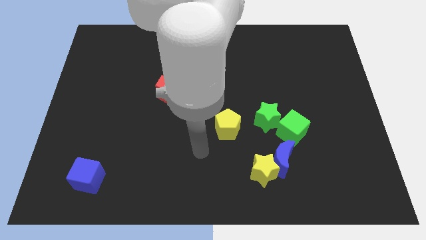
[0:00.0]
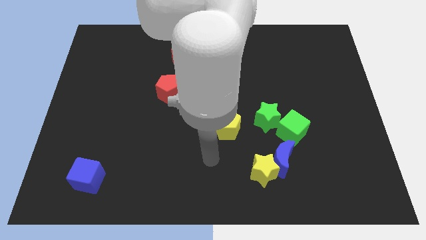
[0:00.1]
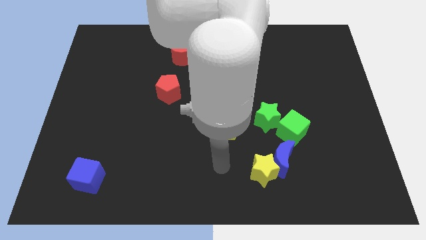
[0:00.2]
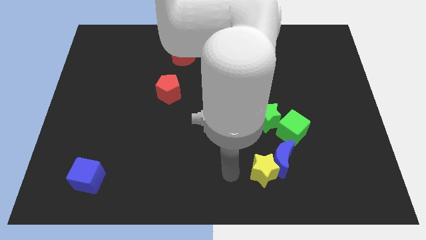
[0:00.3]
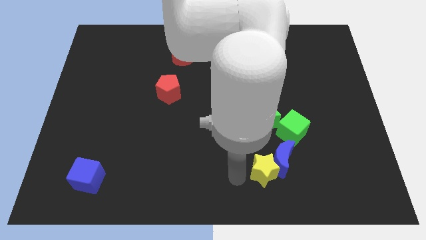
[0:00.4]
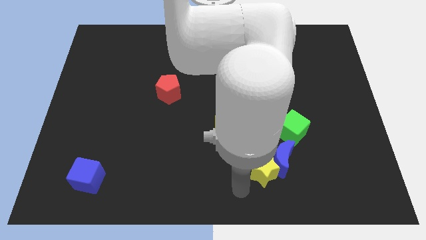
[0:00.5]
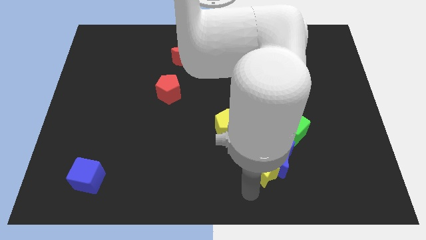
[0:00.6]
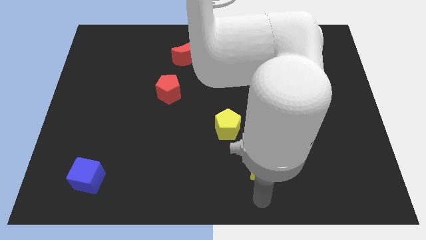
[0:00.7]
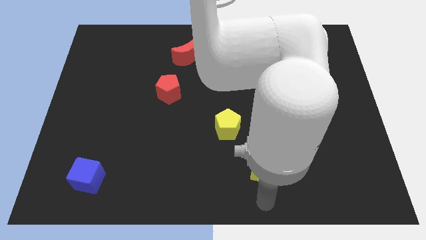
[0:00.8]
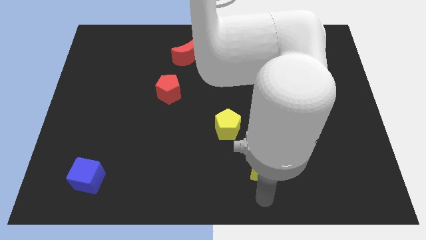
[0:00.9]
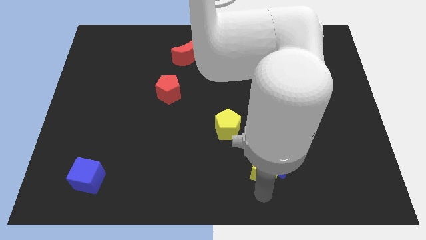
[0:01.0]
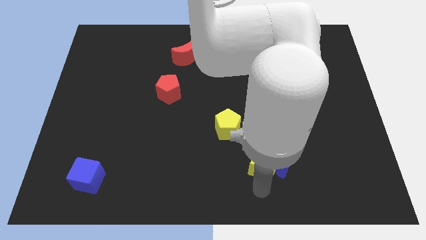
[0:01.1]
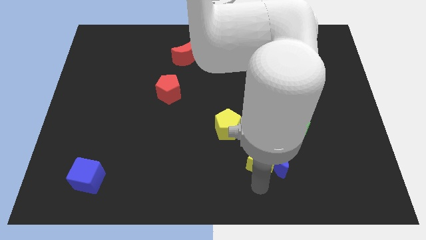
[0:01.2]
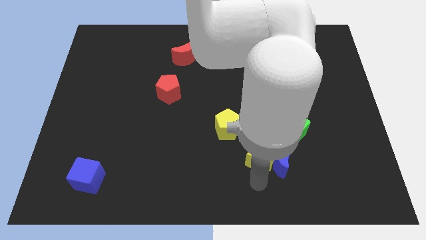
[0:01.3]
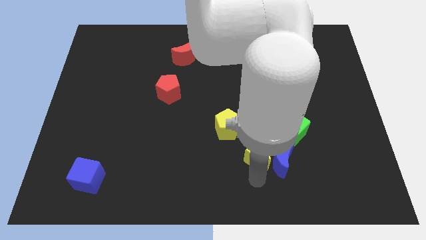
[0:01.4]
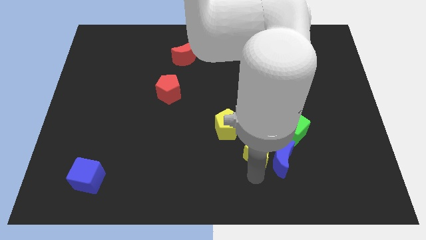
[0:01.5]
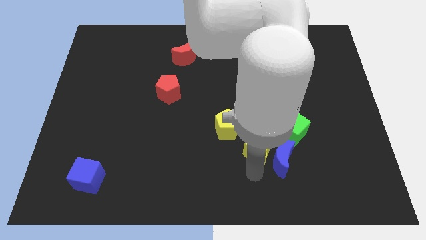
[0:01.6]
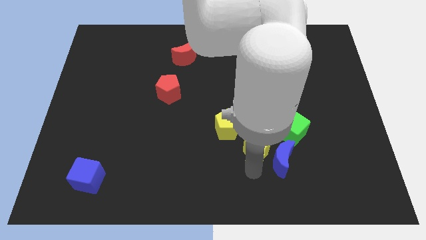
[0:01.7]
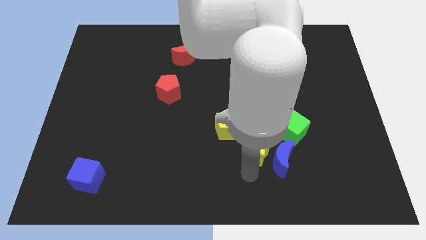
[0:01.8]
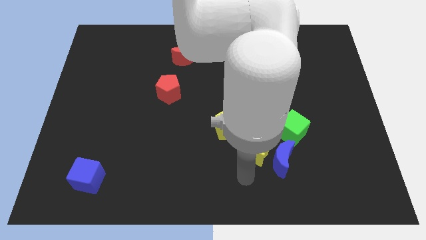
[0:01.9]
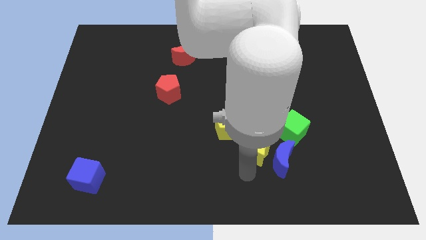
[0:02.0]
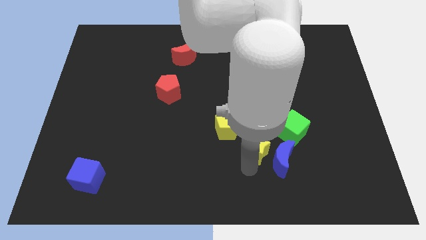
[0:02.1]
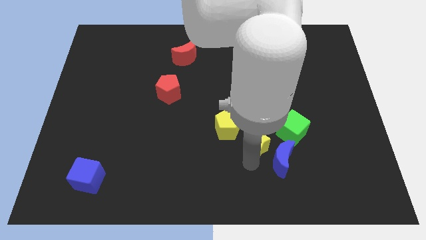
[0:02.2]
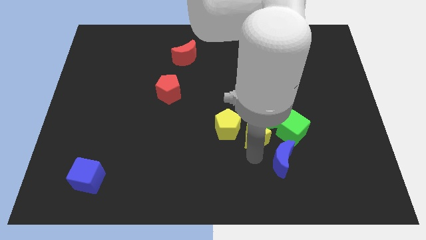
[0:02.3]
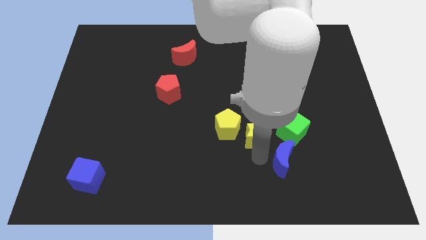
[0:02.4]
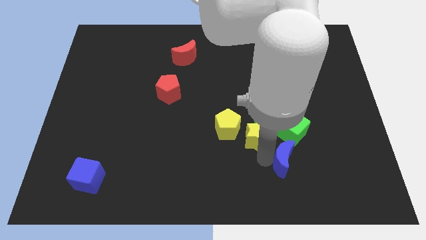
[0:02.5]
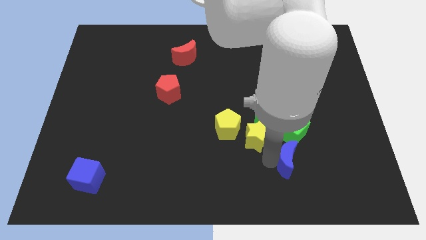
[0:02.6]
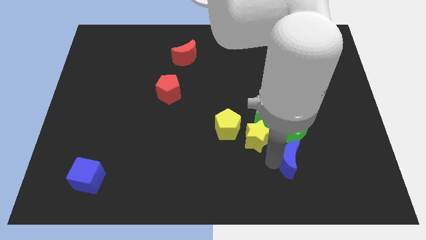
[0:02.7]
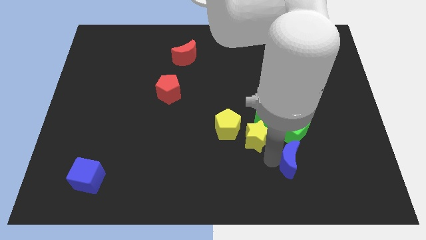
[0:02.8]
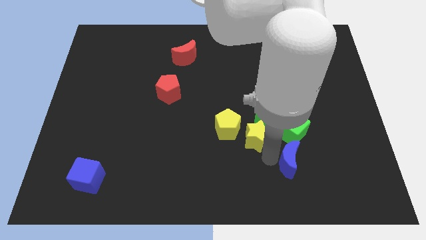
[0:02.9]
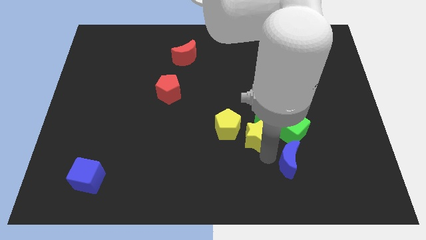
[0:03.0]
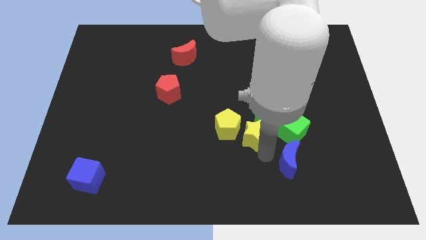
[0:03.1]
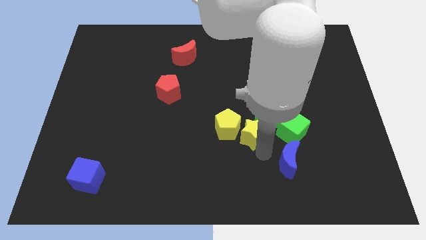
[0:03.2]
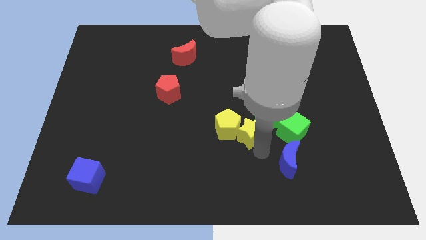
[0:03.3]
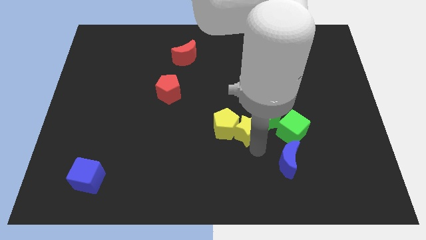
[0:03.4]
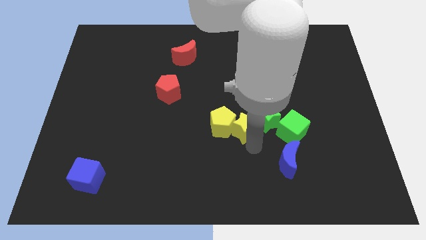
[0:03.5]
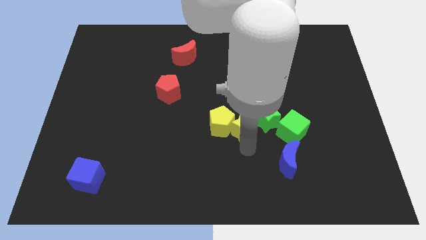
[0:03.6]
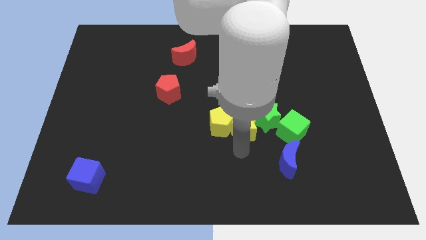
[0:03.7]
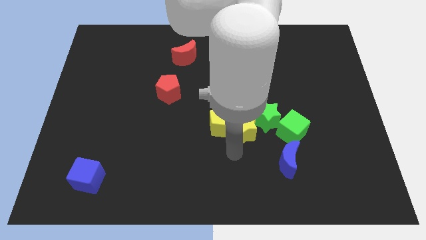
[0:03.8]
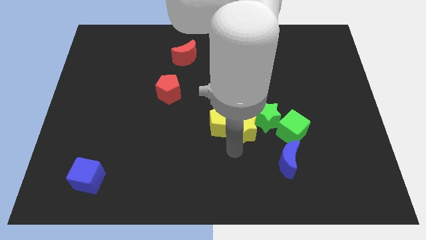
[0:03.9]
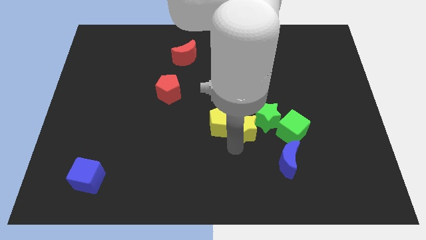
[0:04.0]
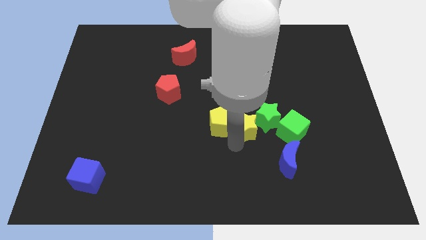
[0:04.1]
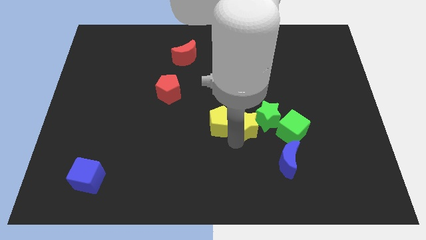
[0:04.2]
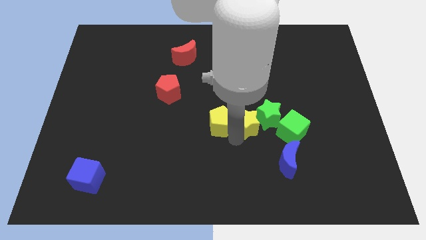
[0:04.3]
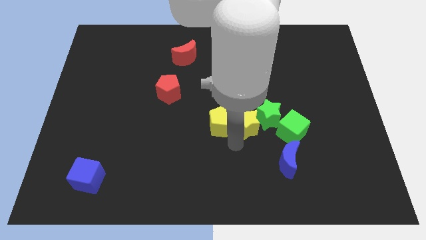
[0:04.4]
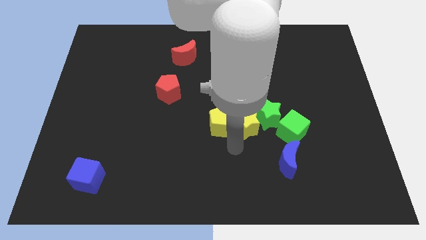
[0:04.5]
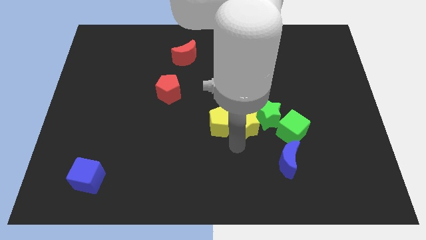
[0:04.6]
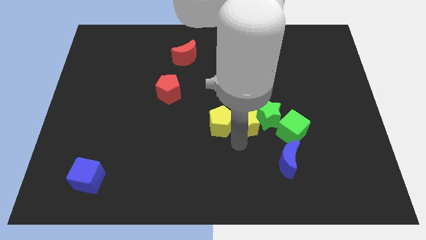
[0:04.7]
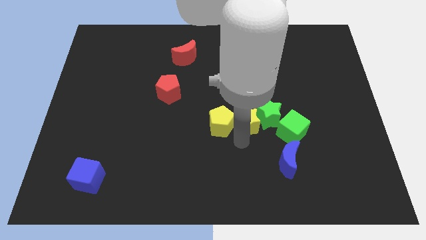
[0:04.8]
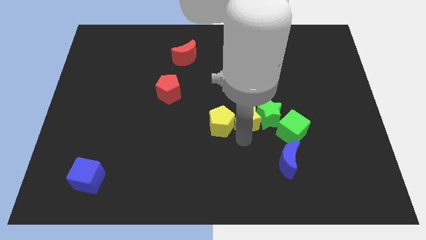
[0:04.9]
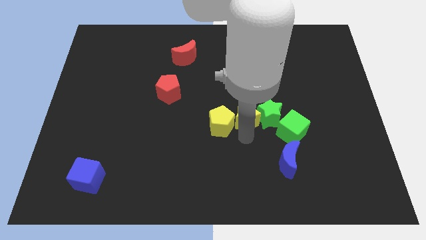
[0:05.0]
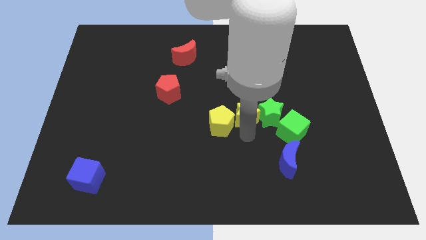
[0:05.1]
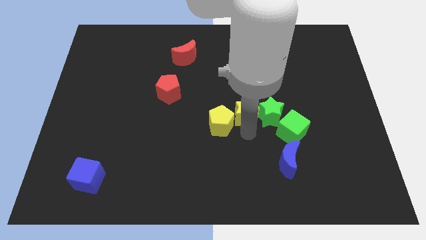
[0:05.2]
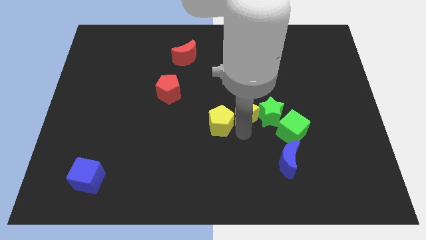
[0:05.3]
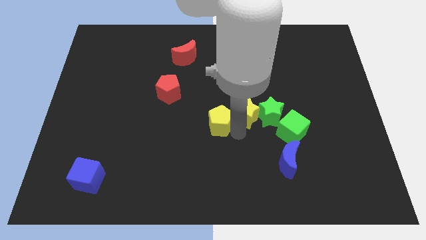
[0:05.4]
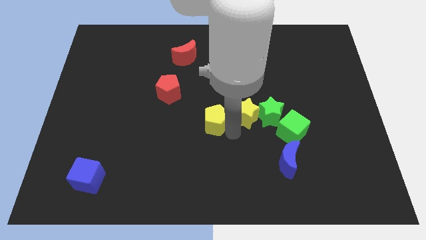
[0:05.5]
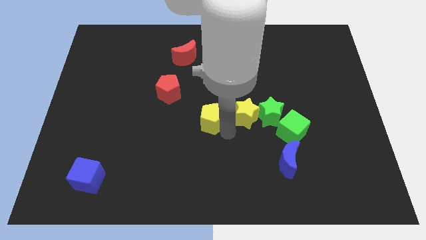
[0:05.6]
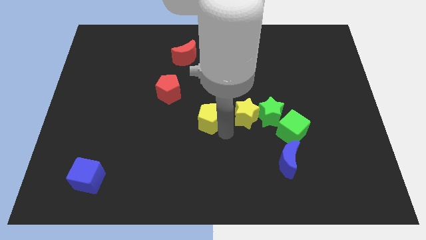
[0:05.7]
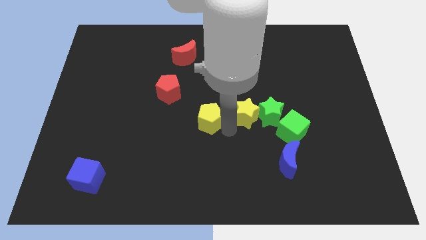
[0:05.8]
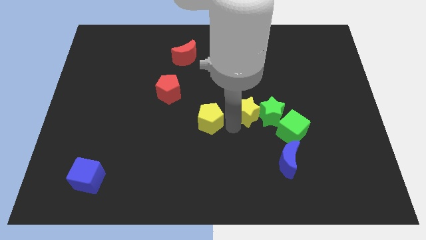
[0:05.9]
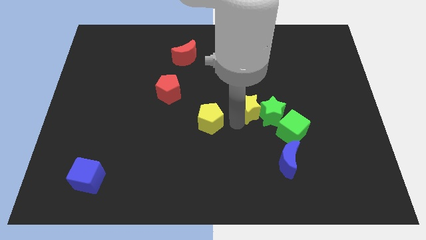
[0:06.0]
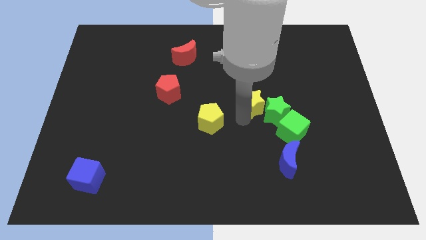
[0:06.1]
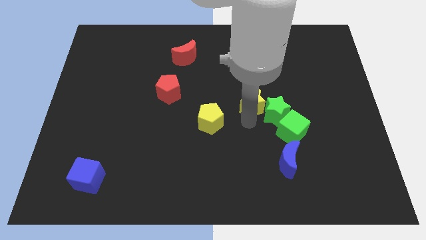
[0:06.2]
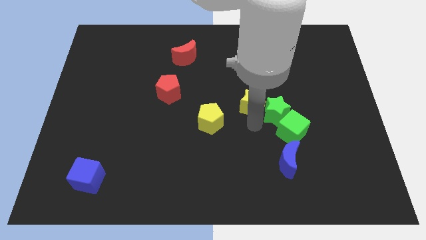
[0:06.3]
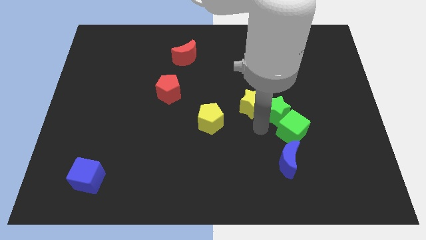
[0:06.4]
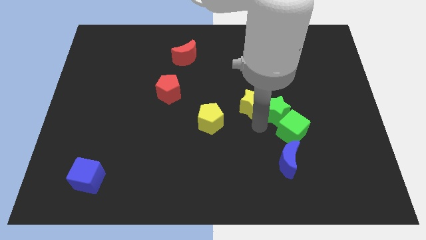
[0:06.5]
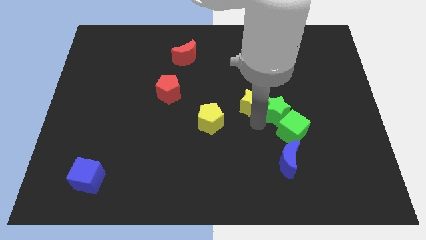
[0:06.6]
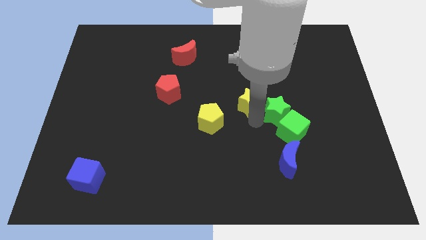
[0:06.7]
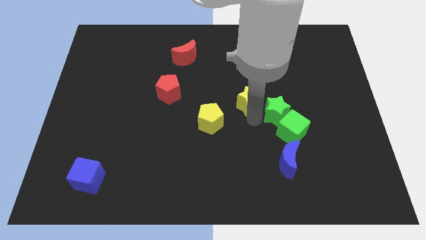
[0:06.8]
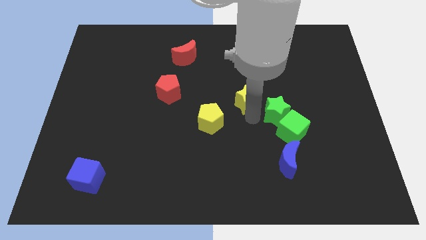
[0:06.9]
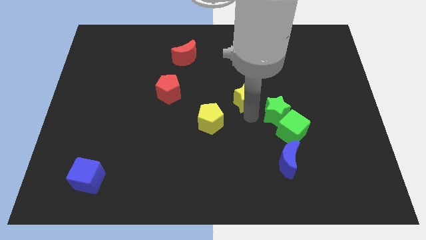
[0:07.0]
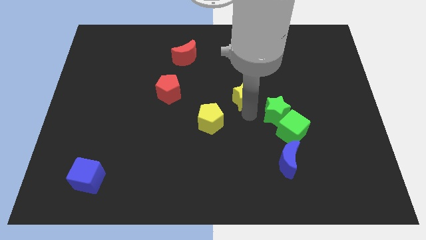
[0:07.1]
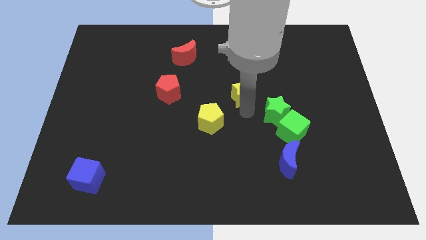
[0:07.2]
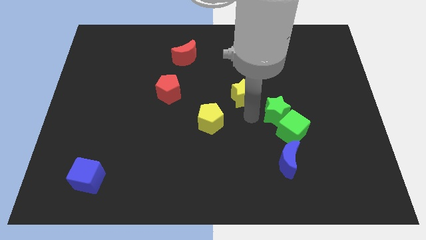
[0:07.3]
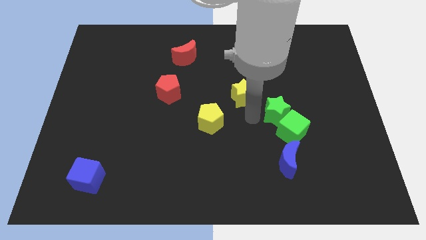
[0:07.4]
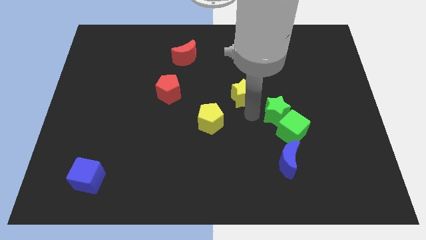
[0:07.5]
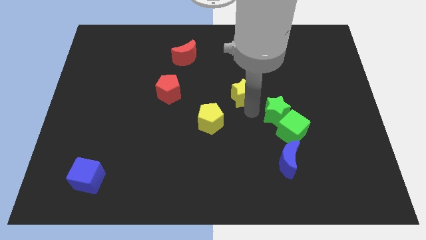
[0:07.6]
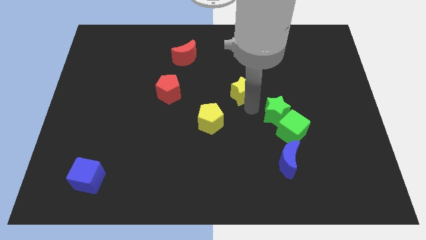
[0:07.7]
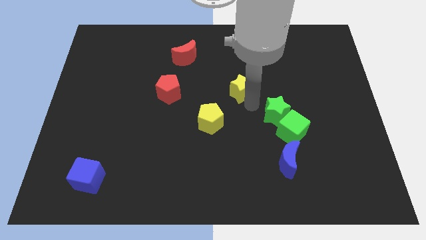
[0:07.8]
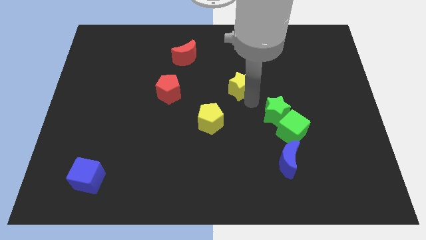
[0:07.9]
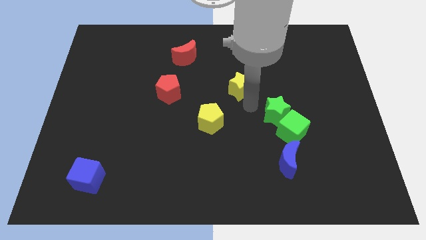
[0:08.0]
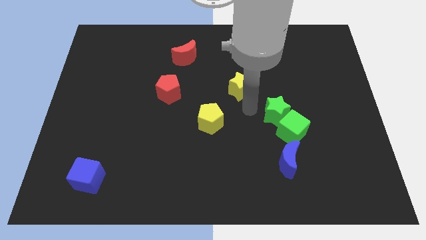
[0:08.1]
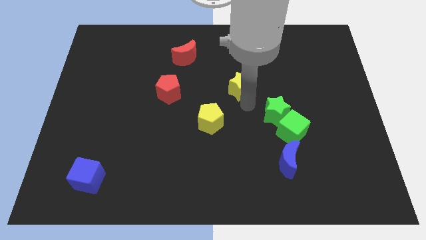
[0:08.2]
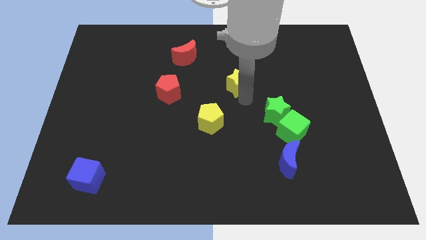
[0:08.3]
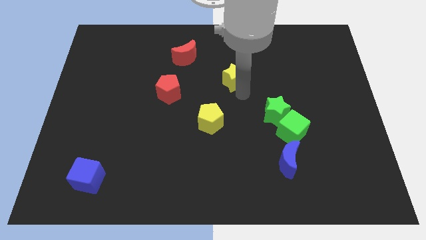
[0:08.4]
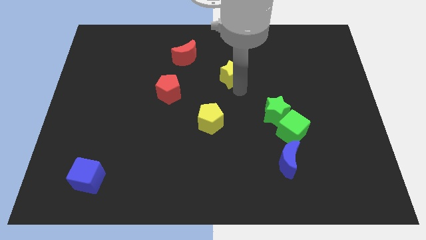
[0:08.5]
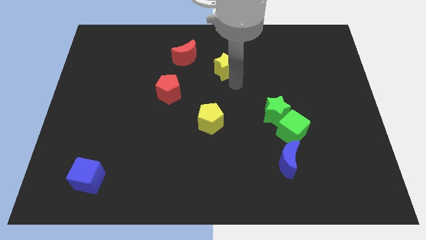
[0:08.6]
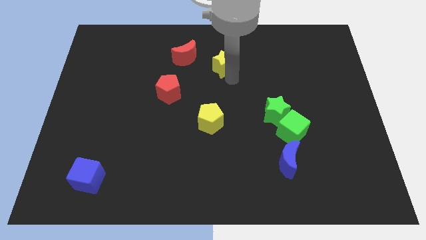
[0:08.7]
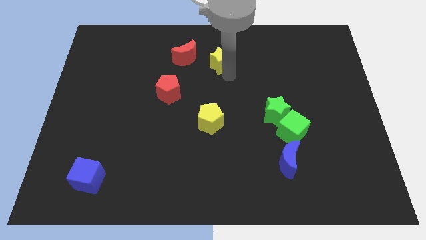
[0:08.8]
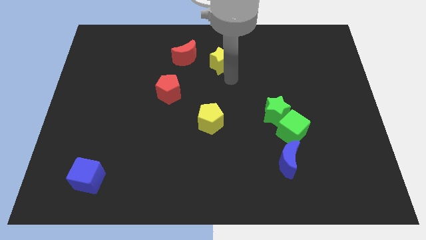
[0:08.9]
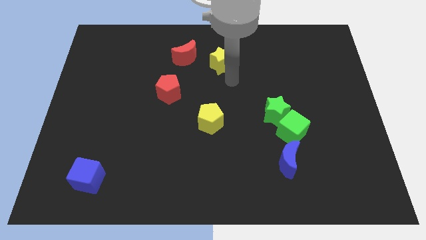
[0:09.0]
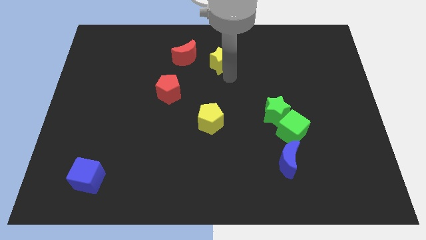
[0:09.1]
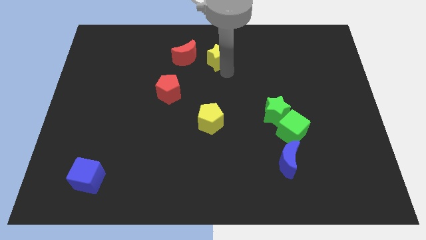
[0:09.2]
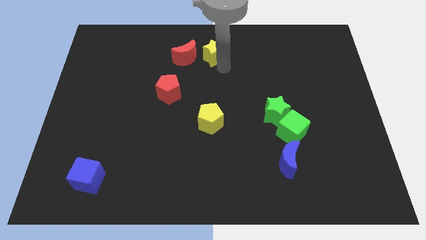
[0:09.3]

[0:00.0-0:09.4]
put the yellow star to the top
